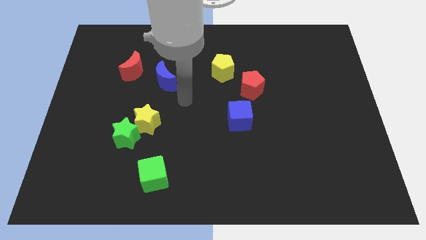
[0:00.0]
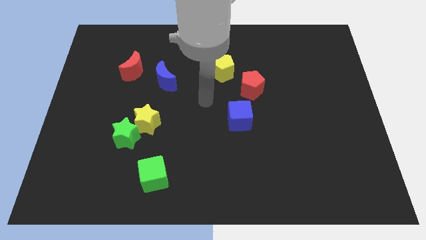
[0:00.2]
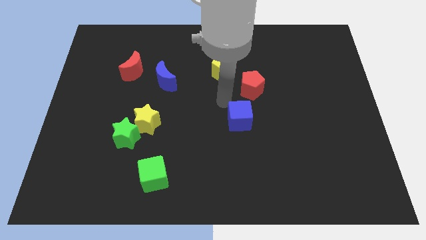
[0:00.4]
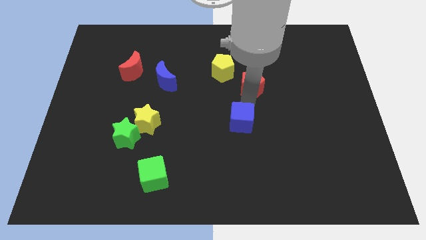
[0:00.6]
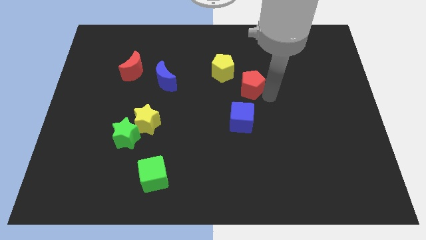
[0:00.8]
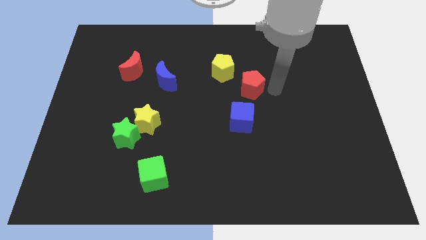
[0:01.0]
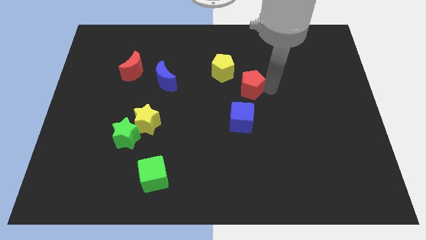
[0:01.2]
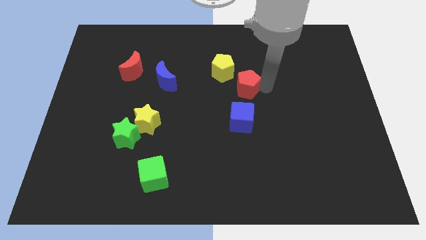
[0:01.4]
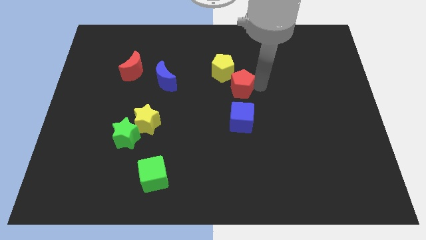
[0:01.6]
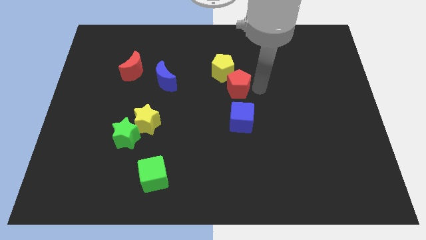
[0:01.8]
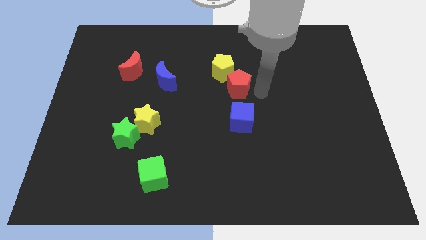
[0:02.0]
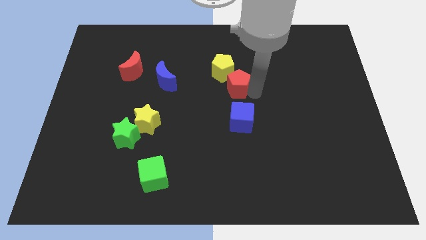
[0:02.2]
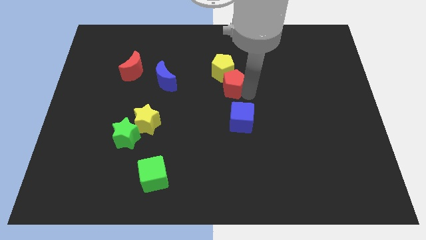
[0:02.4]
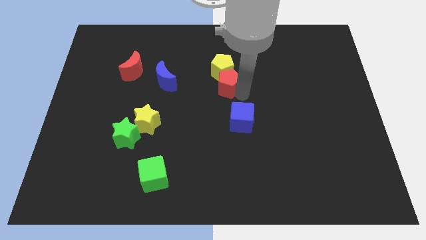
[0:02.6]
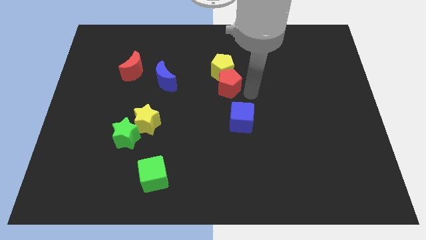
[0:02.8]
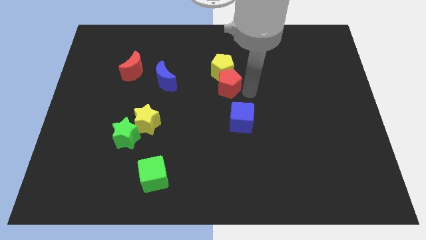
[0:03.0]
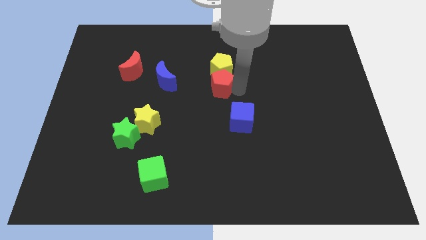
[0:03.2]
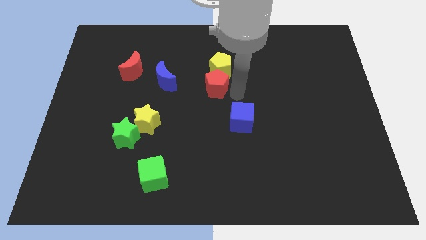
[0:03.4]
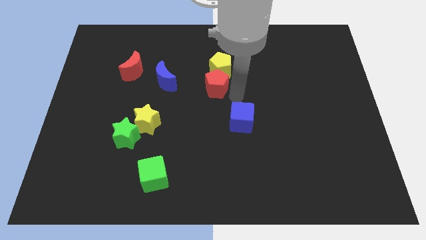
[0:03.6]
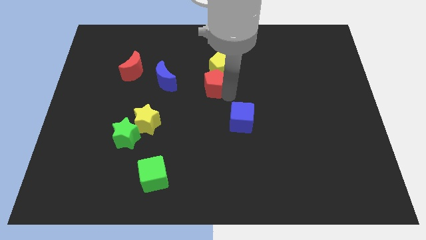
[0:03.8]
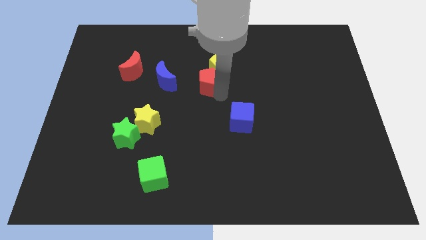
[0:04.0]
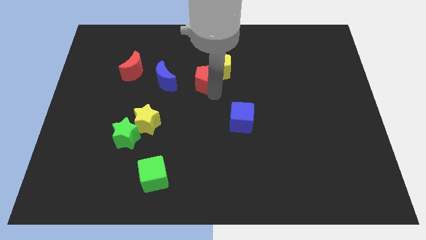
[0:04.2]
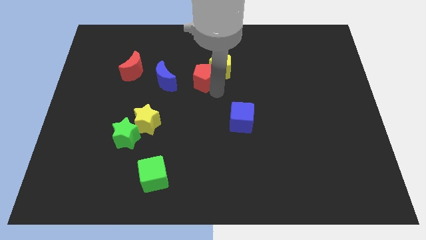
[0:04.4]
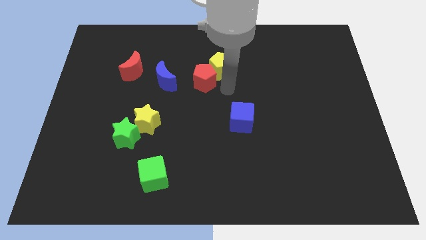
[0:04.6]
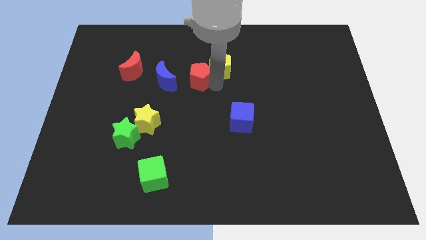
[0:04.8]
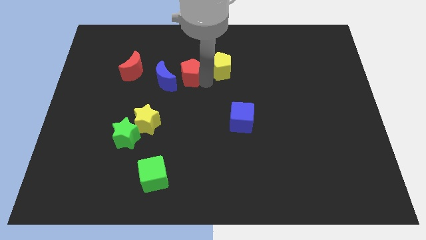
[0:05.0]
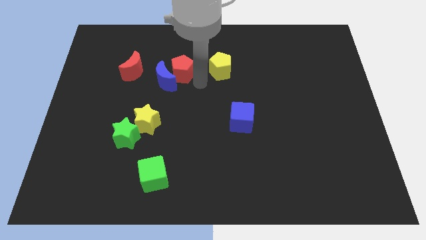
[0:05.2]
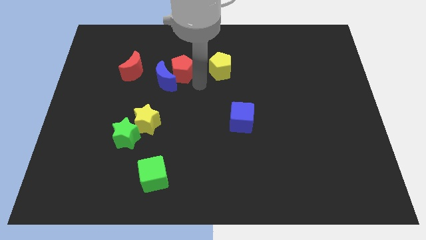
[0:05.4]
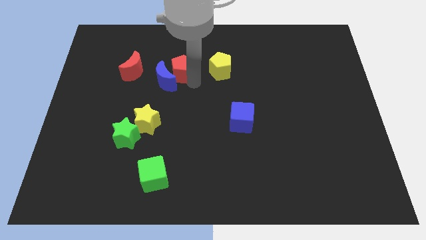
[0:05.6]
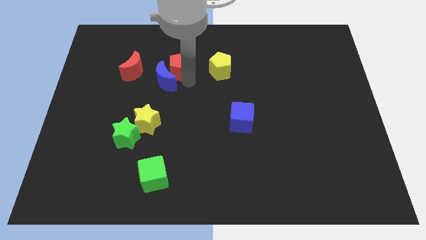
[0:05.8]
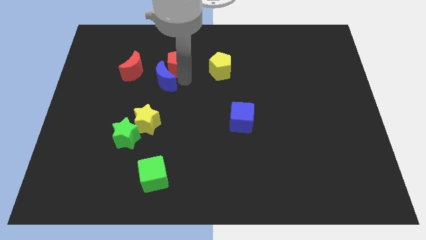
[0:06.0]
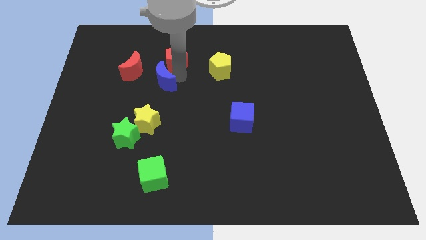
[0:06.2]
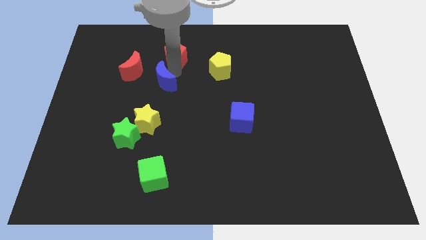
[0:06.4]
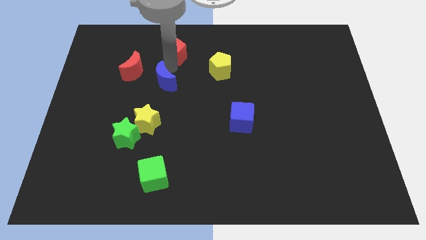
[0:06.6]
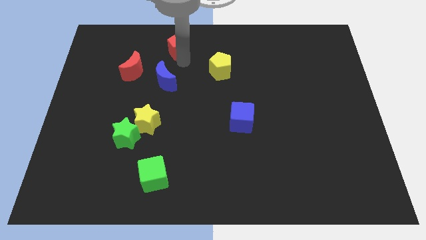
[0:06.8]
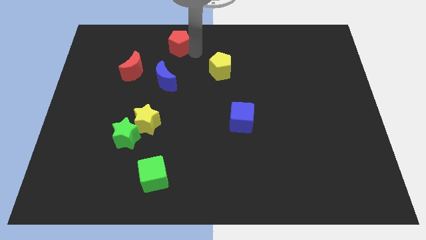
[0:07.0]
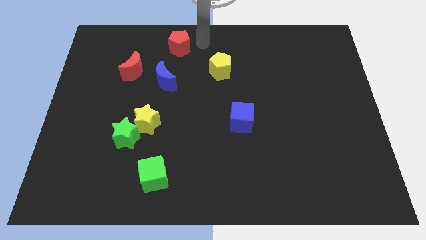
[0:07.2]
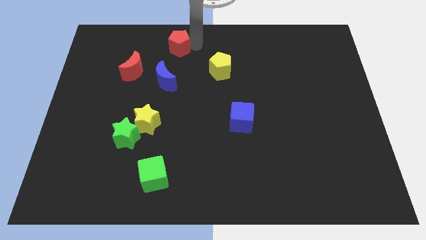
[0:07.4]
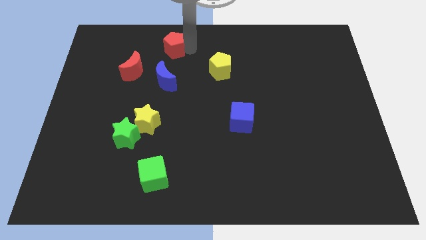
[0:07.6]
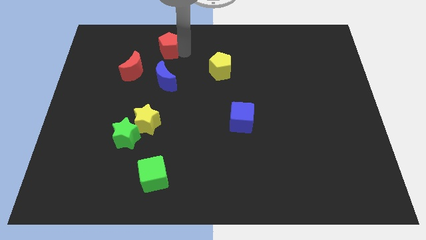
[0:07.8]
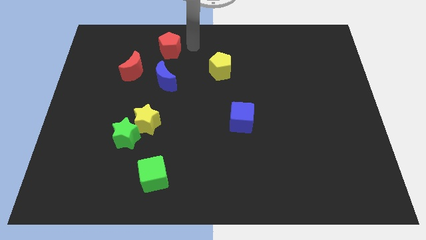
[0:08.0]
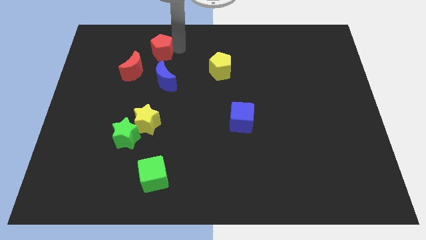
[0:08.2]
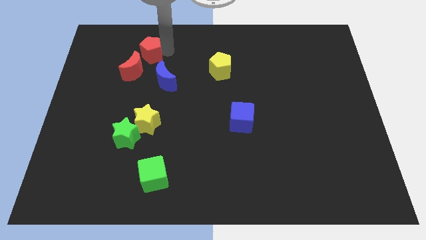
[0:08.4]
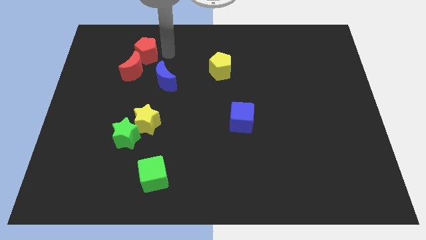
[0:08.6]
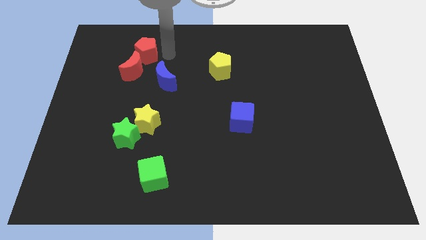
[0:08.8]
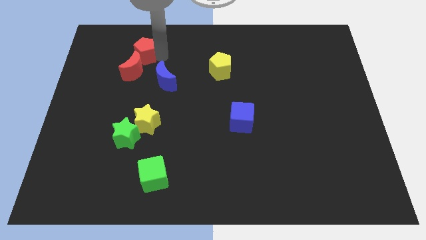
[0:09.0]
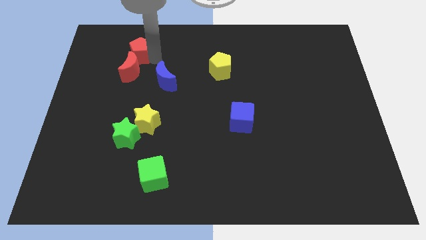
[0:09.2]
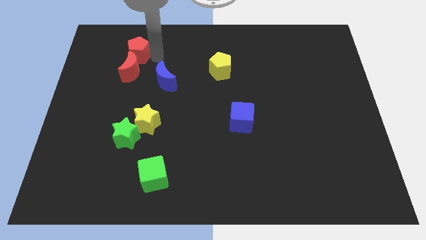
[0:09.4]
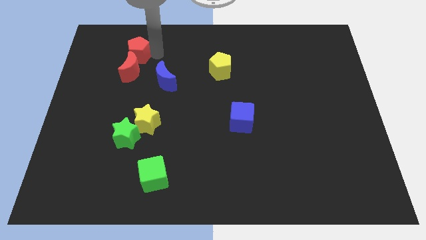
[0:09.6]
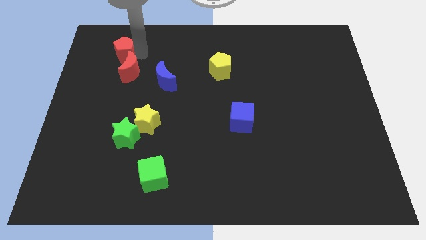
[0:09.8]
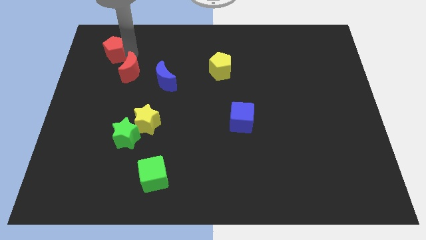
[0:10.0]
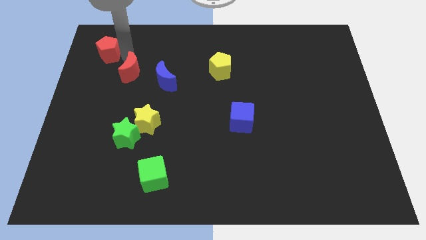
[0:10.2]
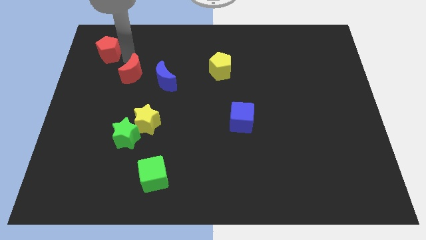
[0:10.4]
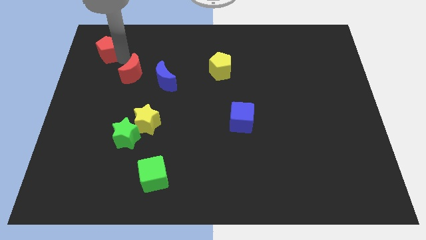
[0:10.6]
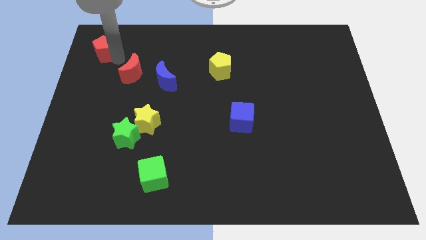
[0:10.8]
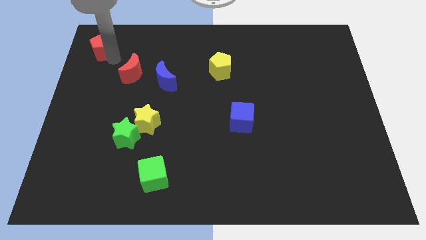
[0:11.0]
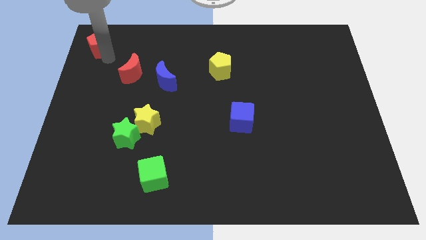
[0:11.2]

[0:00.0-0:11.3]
slide the red pentagon to the top left

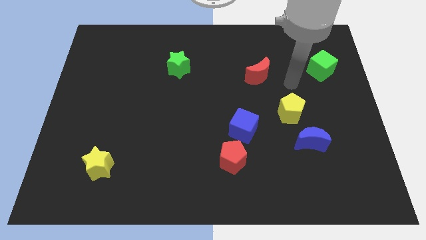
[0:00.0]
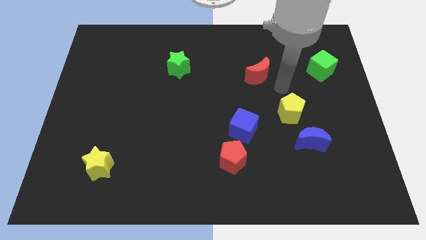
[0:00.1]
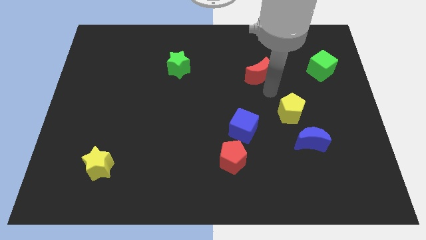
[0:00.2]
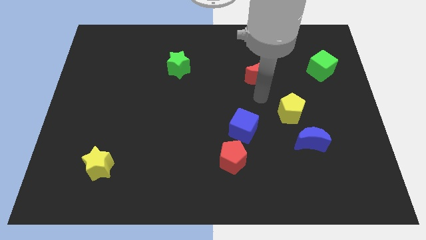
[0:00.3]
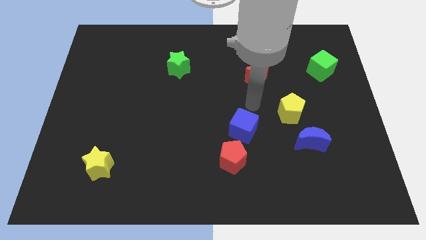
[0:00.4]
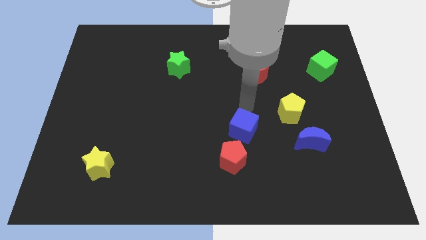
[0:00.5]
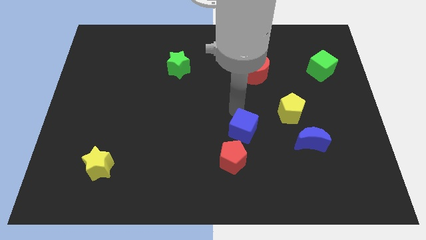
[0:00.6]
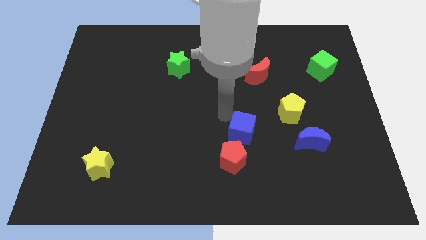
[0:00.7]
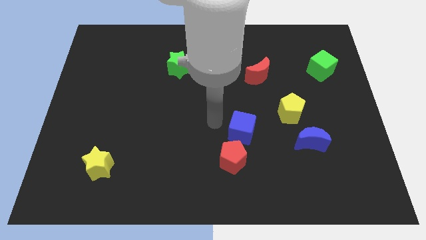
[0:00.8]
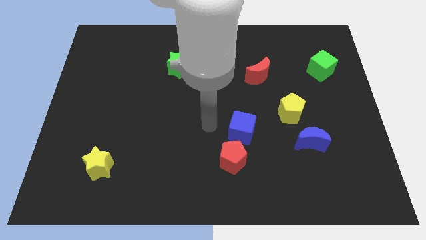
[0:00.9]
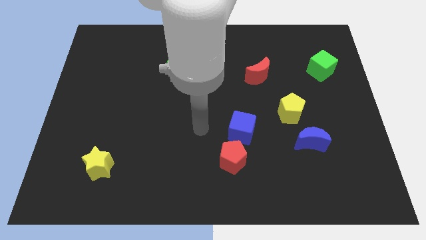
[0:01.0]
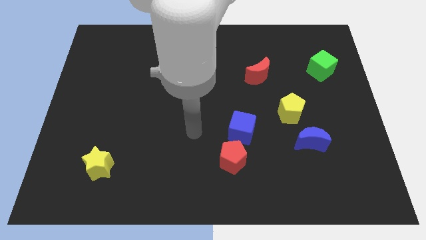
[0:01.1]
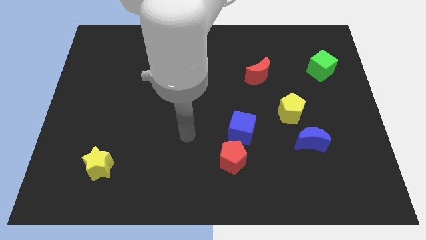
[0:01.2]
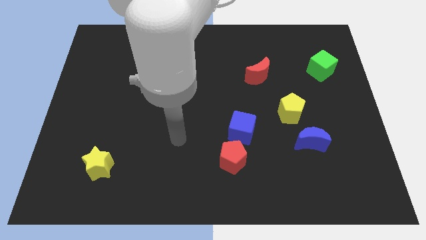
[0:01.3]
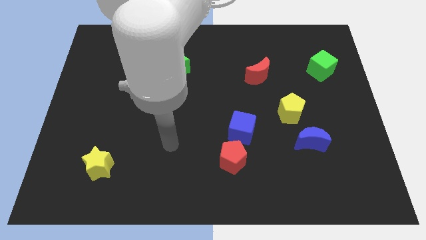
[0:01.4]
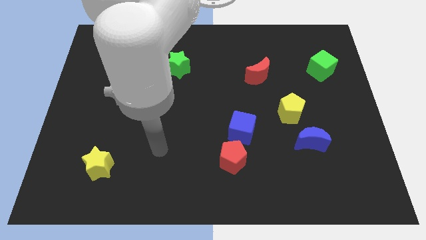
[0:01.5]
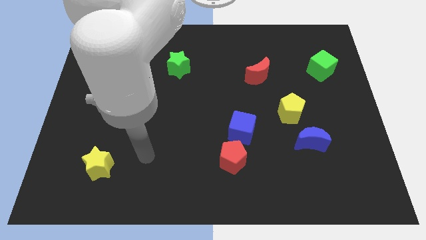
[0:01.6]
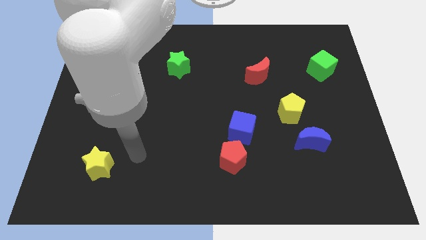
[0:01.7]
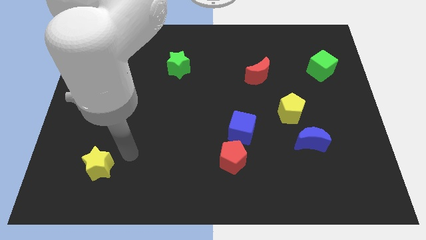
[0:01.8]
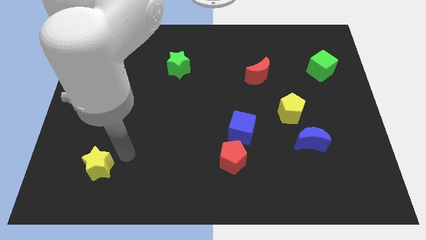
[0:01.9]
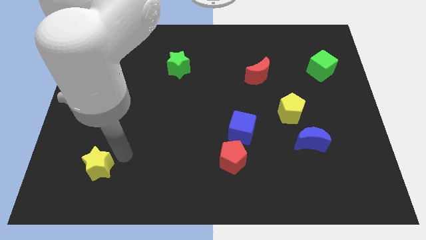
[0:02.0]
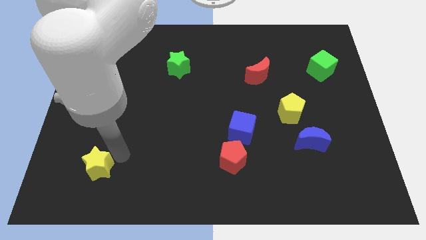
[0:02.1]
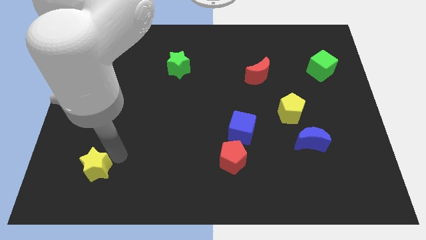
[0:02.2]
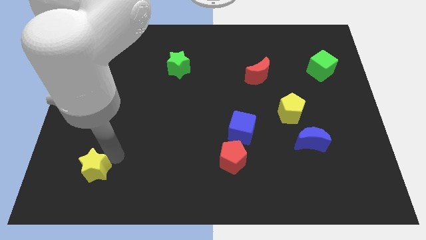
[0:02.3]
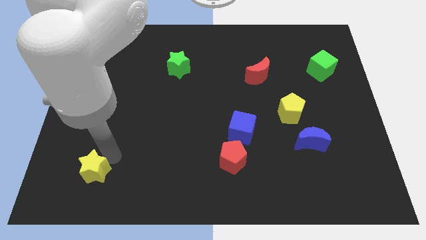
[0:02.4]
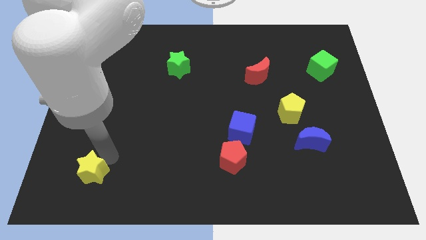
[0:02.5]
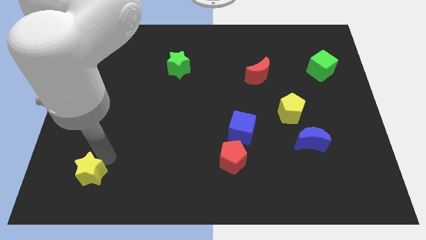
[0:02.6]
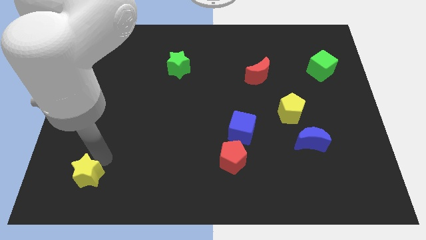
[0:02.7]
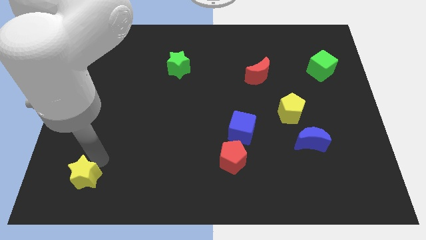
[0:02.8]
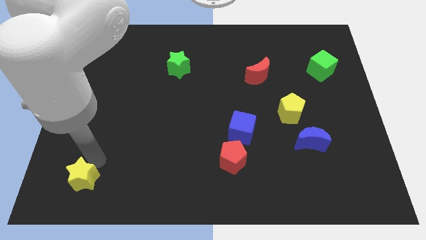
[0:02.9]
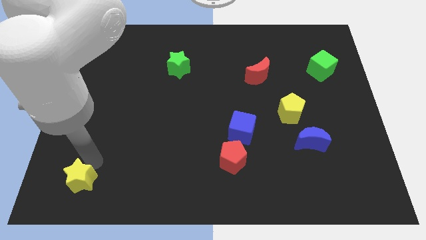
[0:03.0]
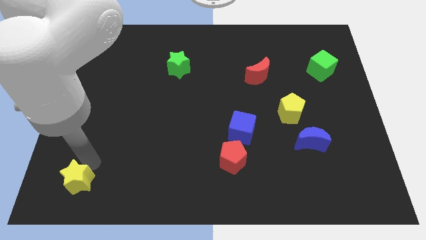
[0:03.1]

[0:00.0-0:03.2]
slide the yellow star to the lower left corner
